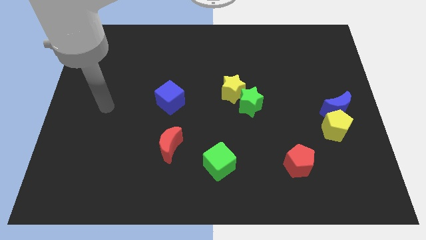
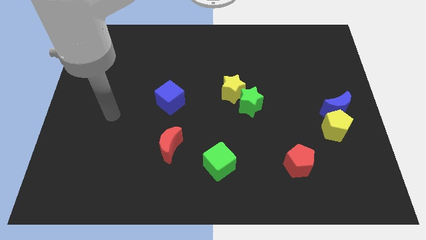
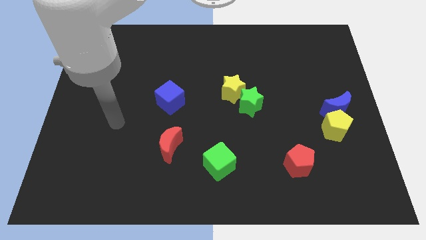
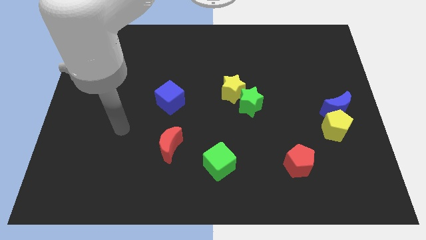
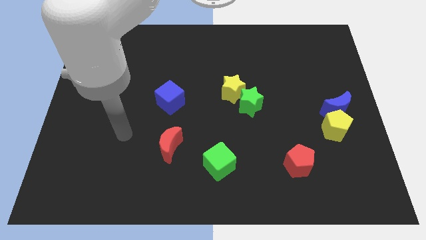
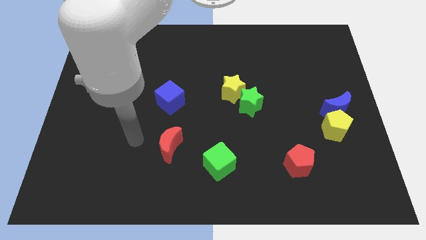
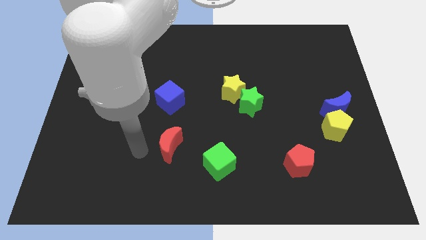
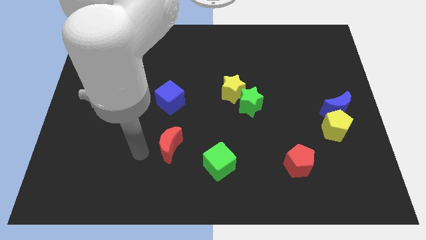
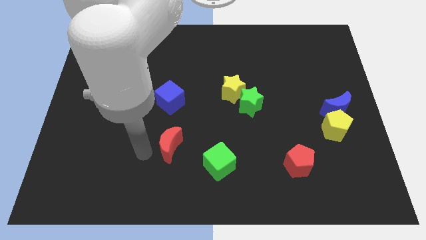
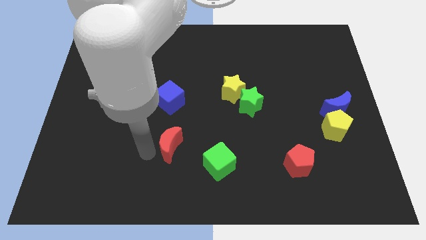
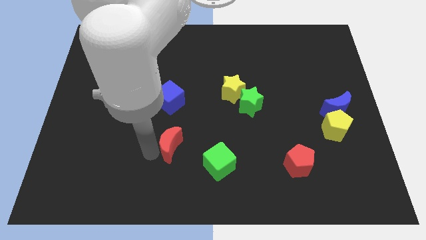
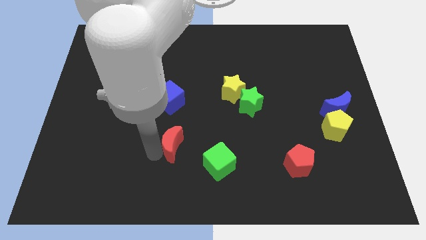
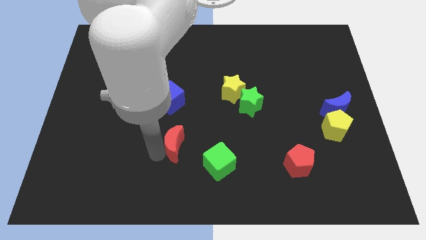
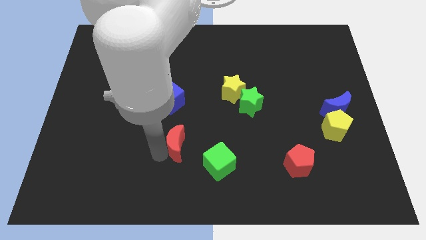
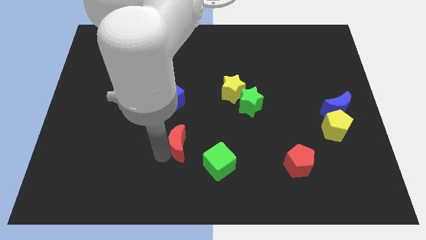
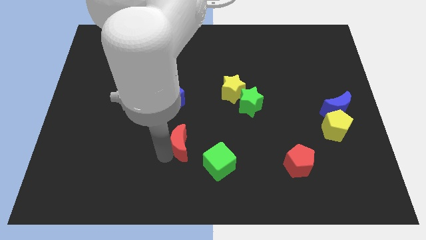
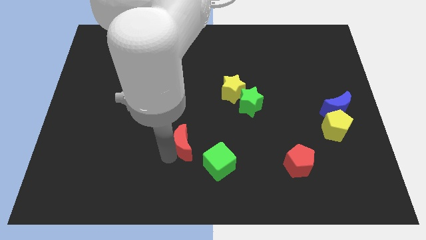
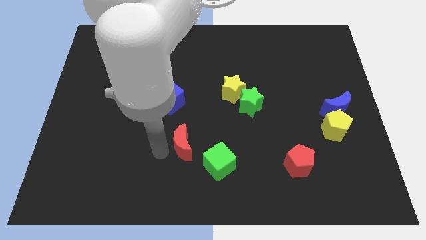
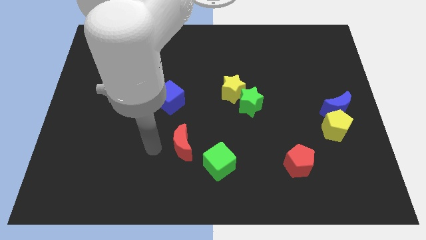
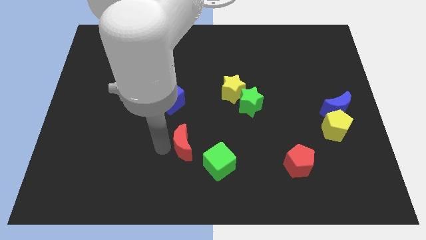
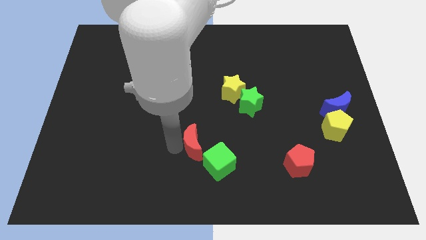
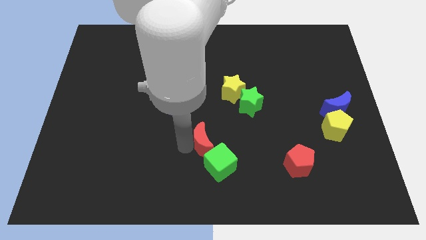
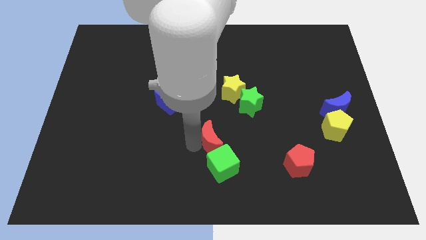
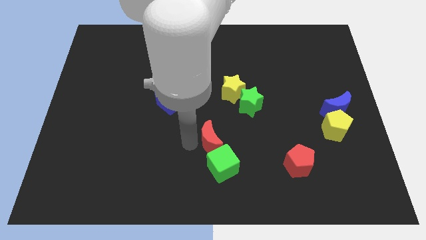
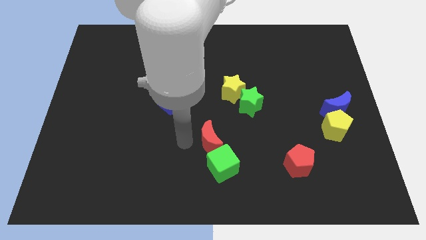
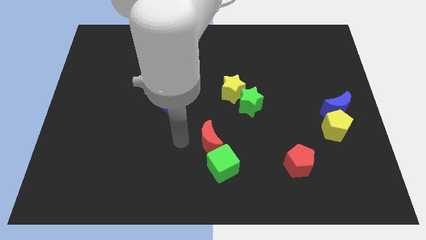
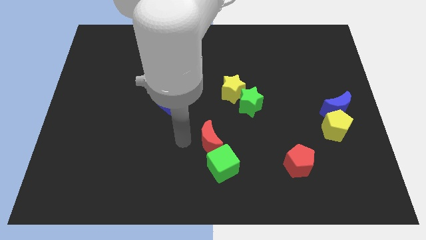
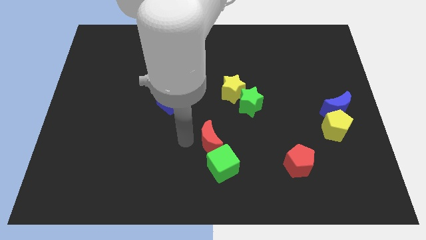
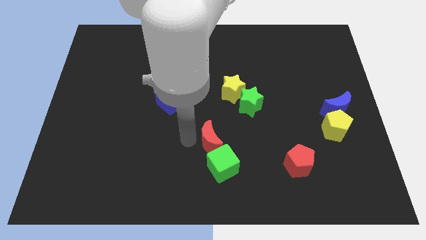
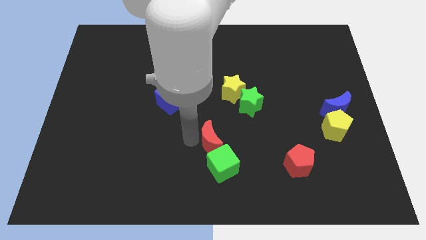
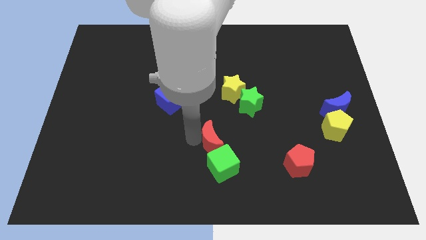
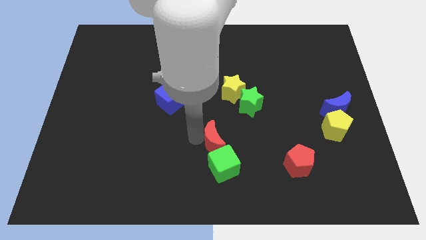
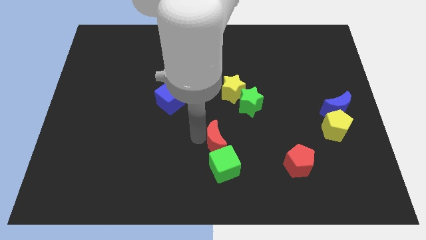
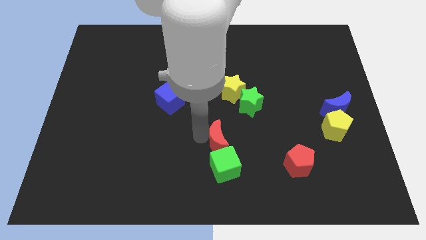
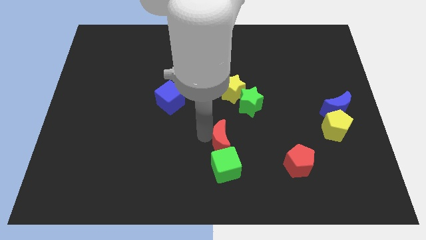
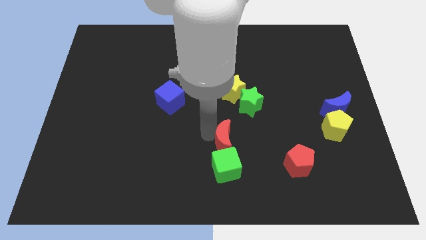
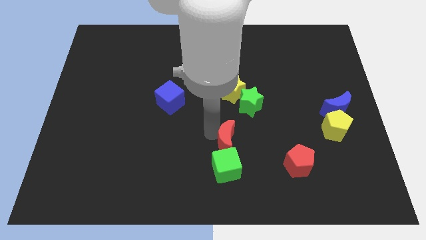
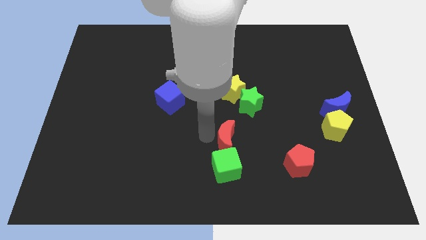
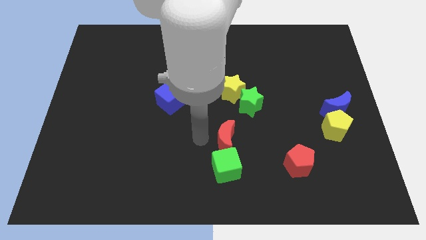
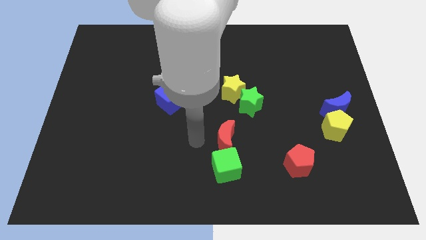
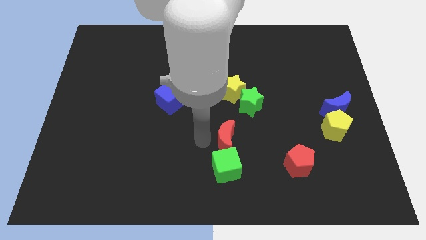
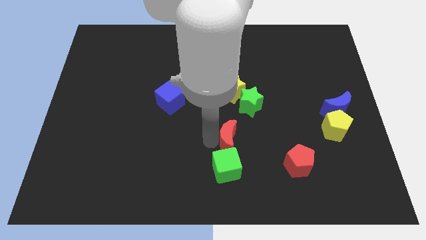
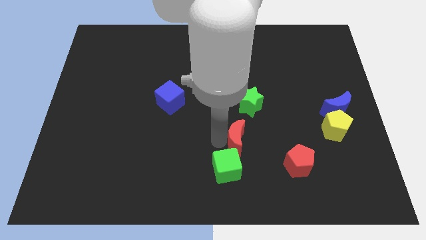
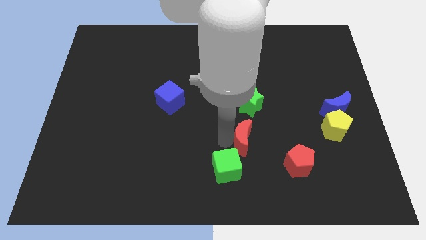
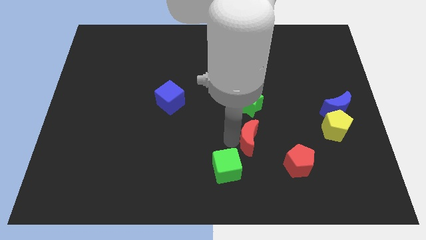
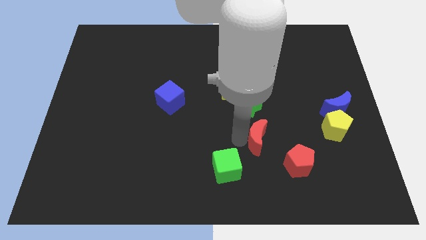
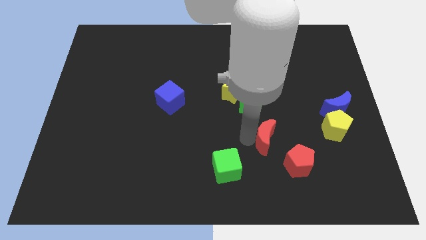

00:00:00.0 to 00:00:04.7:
move the red moon to the right

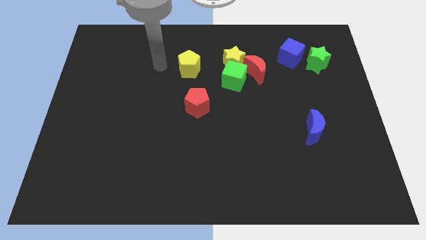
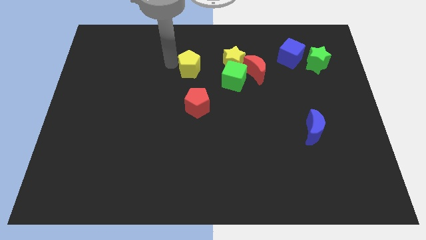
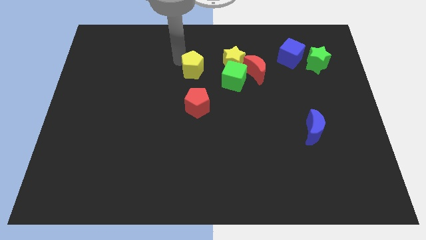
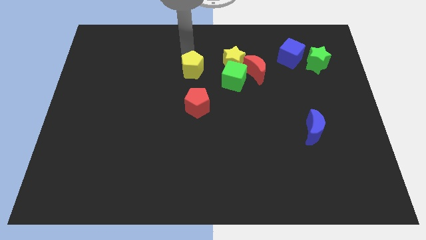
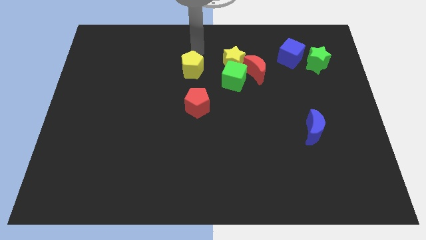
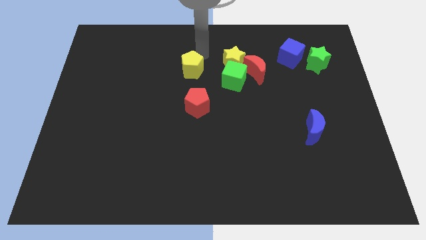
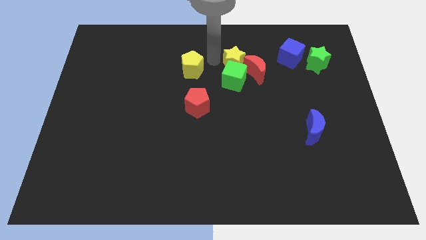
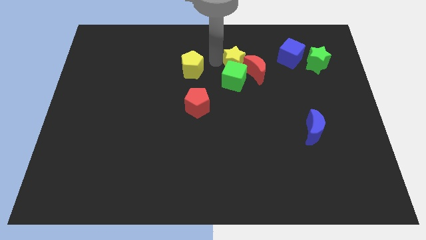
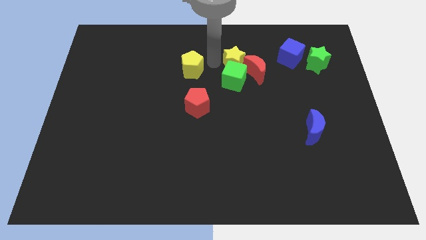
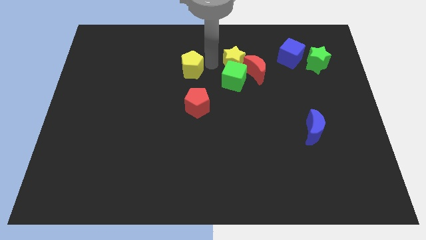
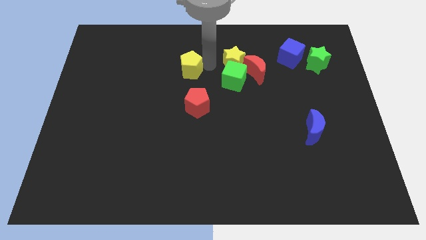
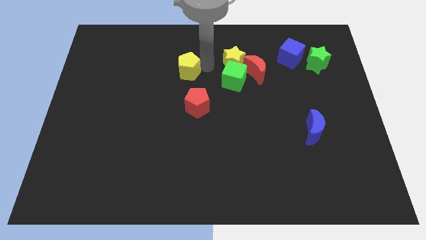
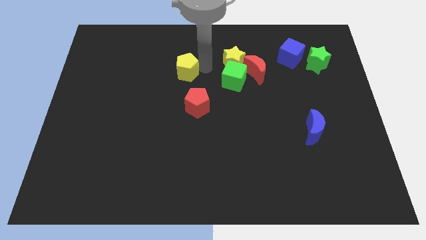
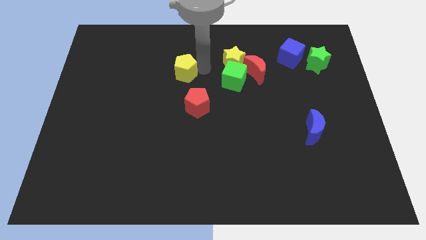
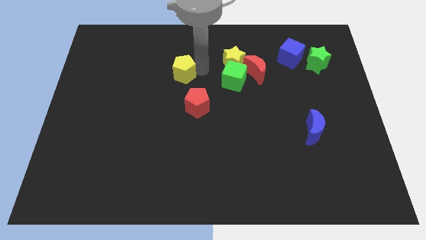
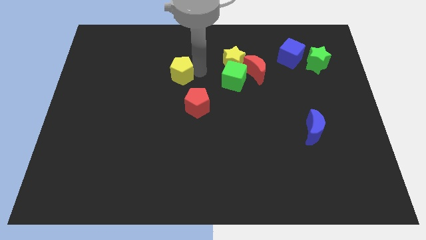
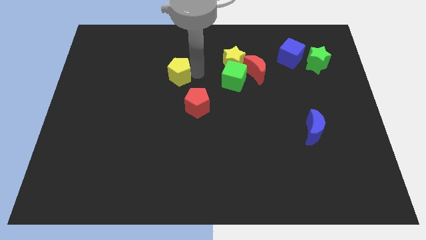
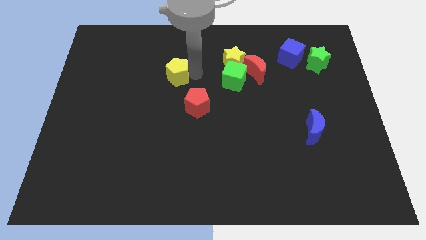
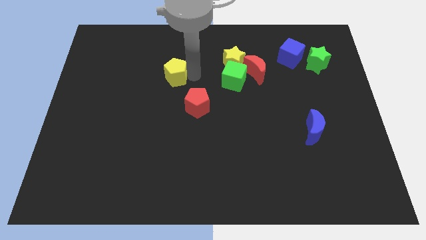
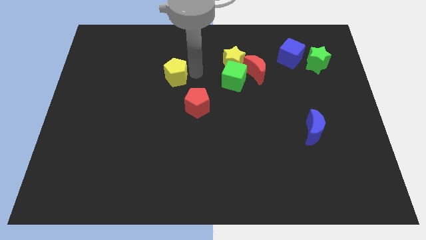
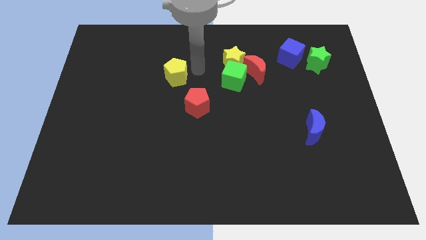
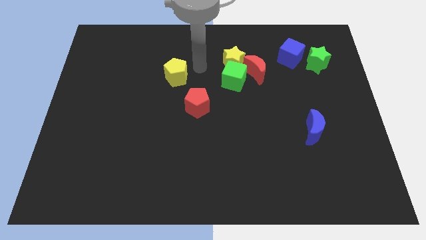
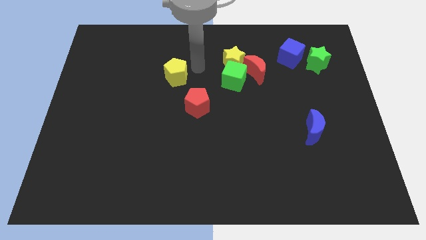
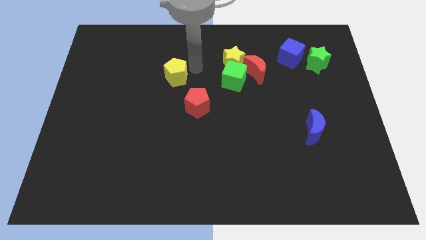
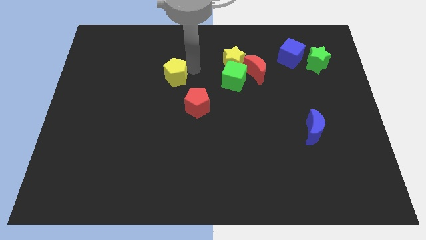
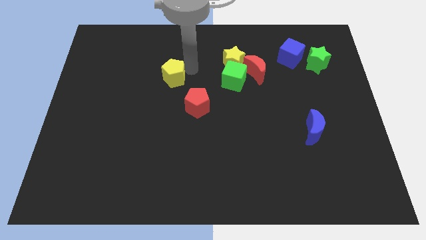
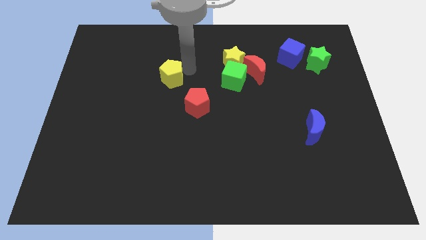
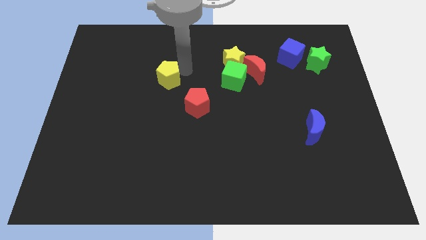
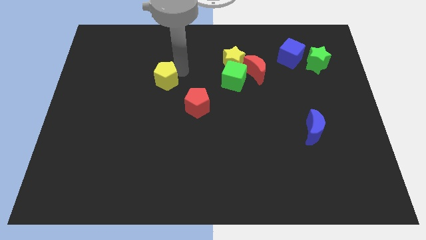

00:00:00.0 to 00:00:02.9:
slide the yellow pentagon diagonally down and left a little
